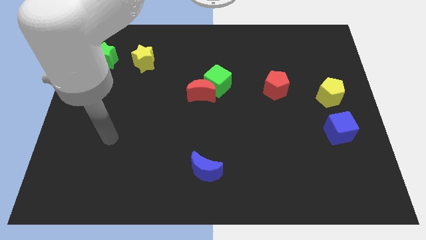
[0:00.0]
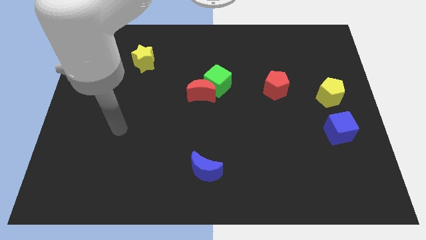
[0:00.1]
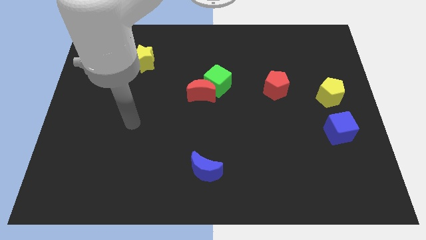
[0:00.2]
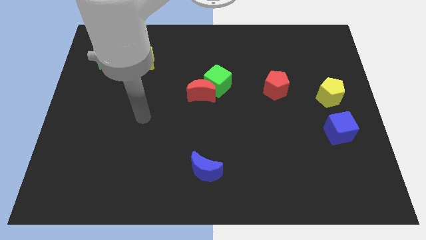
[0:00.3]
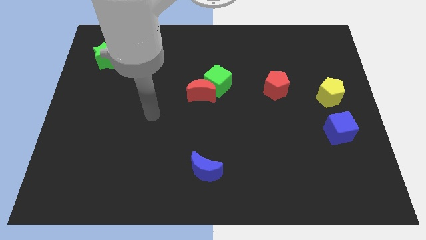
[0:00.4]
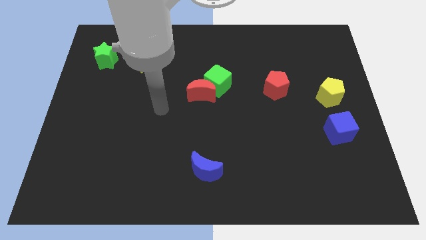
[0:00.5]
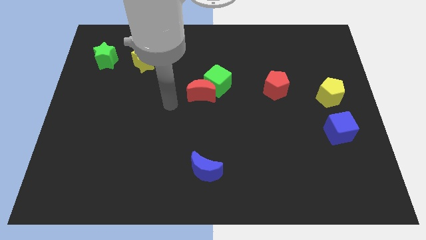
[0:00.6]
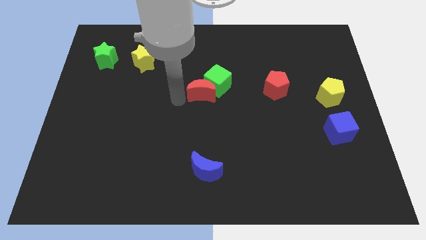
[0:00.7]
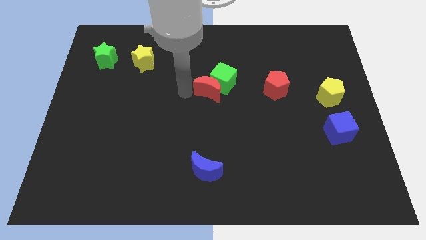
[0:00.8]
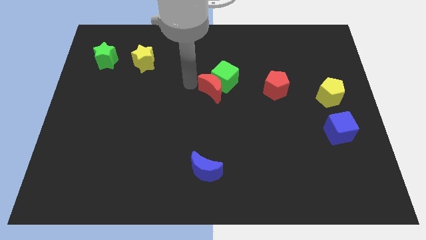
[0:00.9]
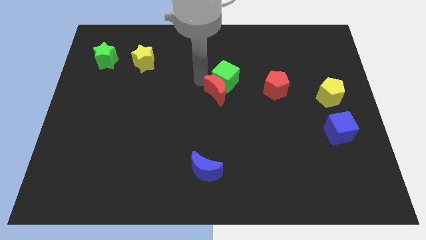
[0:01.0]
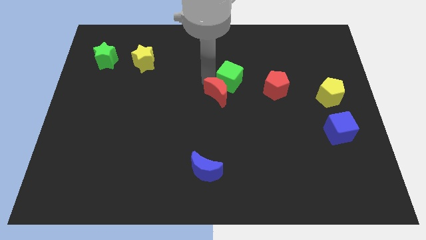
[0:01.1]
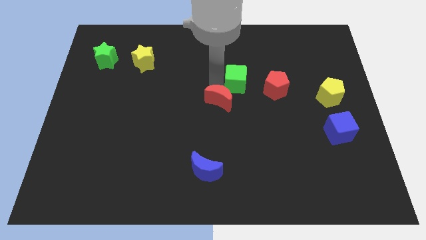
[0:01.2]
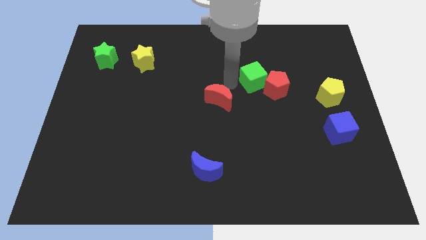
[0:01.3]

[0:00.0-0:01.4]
move the red moon away from the green cube

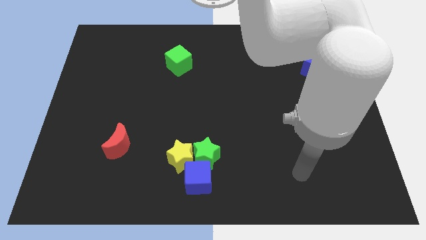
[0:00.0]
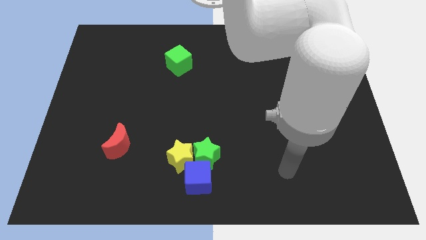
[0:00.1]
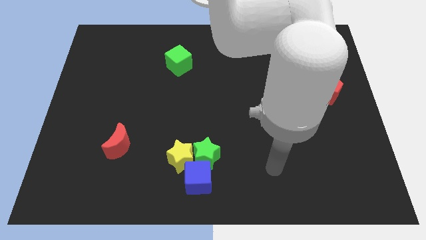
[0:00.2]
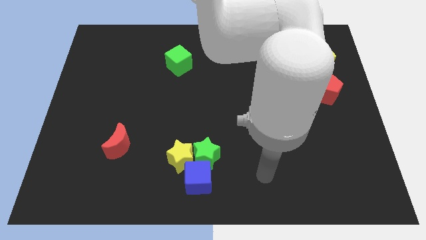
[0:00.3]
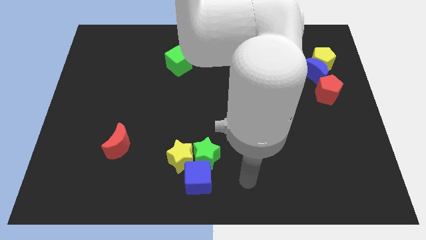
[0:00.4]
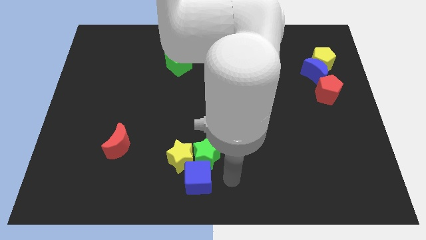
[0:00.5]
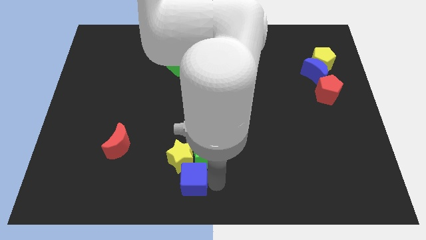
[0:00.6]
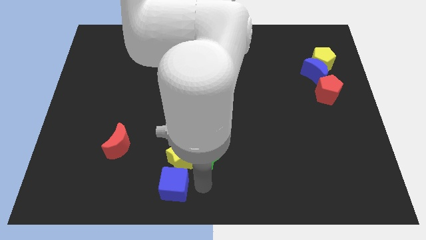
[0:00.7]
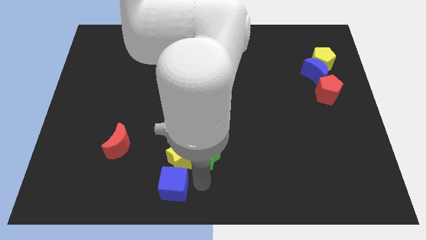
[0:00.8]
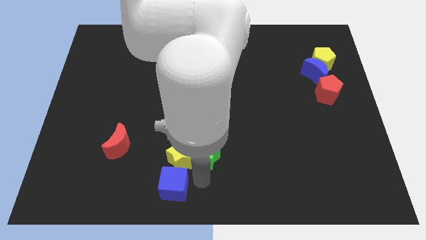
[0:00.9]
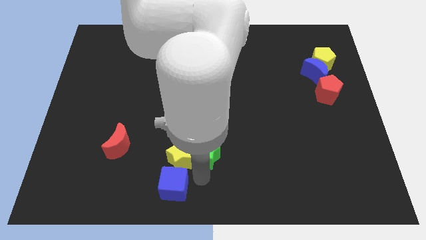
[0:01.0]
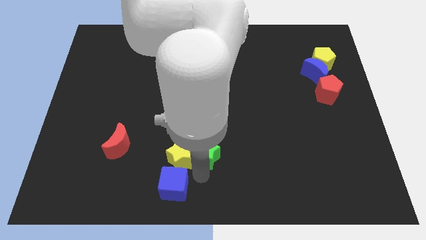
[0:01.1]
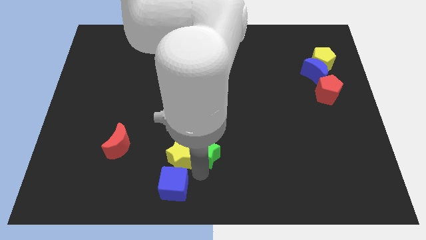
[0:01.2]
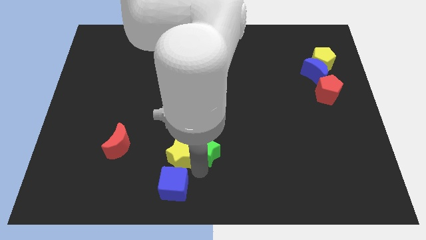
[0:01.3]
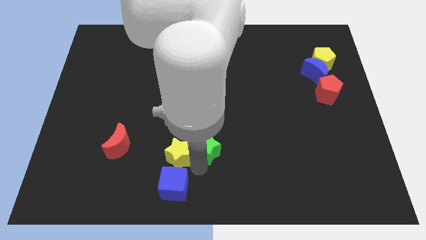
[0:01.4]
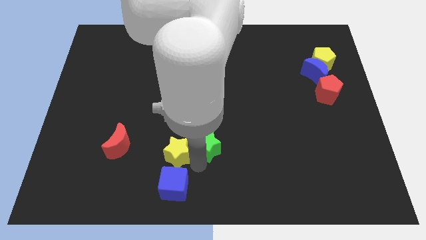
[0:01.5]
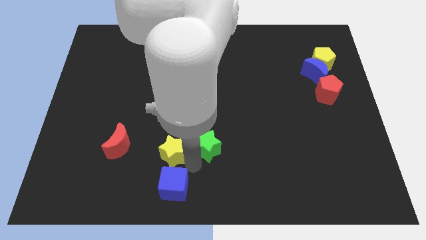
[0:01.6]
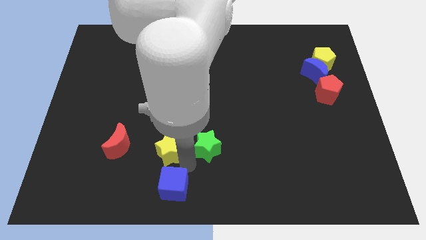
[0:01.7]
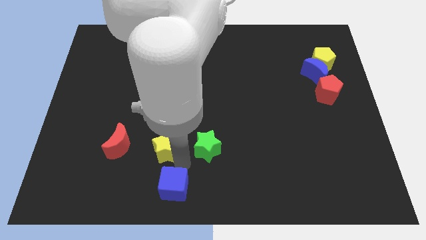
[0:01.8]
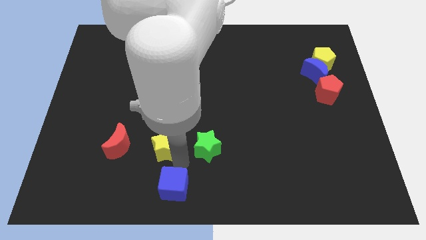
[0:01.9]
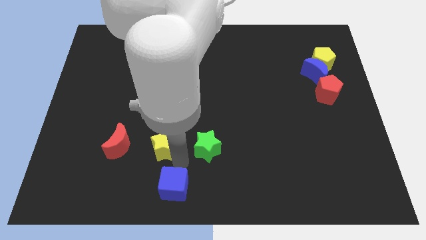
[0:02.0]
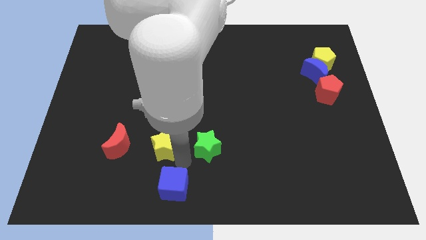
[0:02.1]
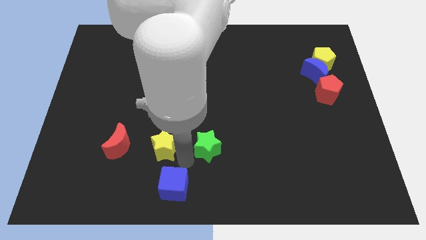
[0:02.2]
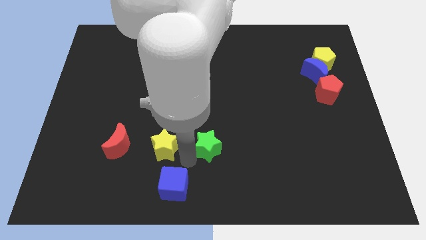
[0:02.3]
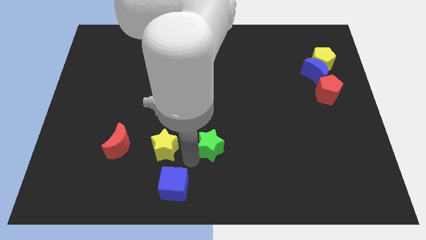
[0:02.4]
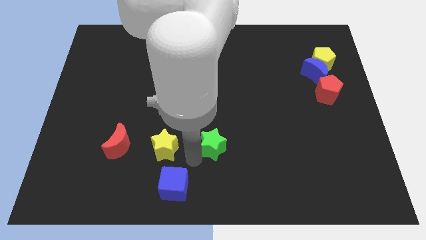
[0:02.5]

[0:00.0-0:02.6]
pull the green star apart from the yellow star and blue cube

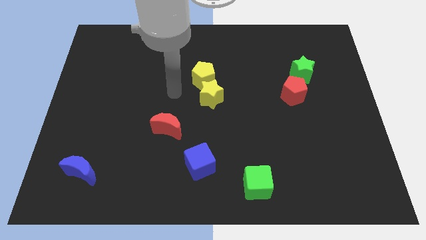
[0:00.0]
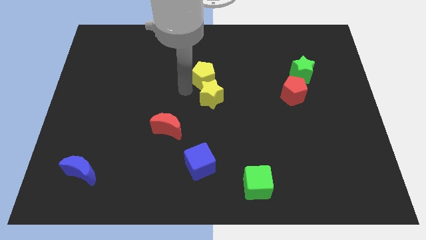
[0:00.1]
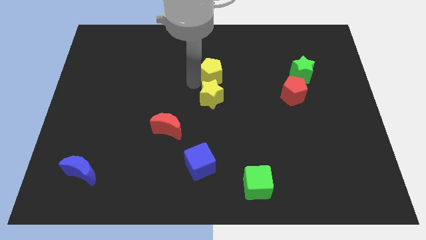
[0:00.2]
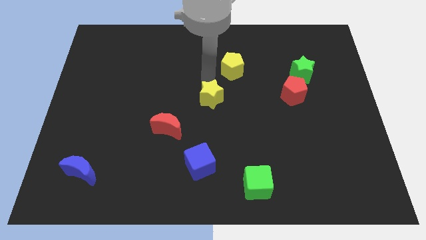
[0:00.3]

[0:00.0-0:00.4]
move the yellow star away from the yellow pentagon

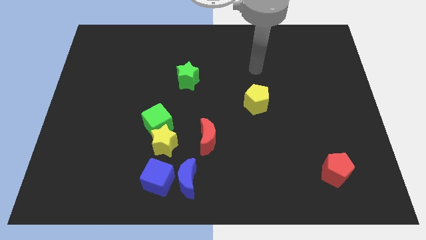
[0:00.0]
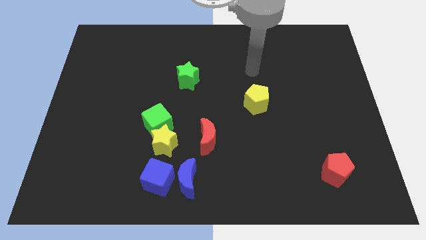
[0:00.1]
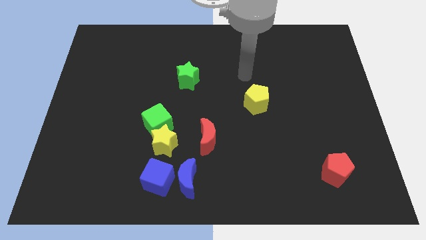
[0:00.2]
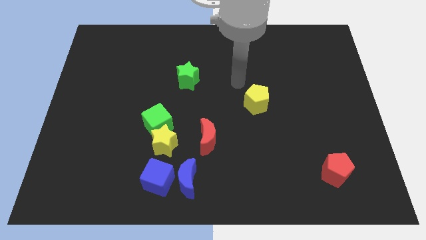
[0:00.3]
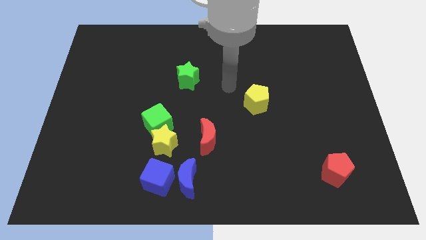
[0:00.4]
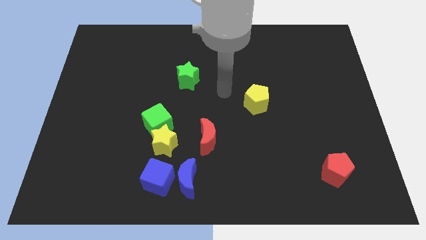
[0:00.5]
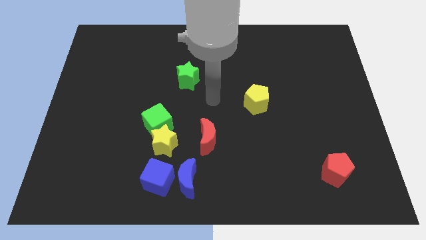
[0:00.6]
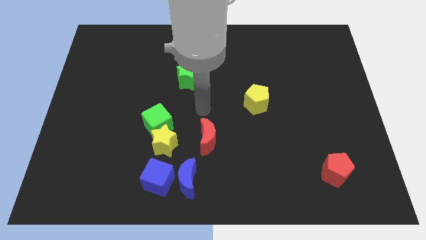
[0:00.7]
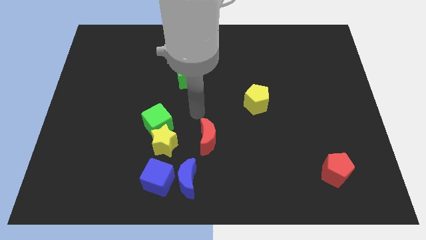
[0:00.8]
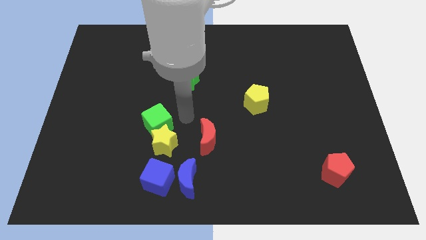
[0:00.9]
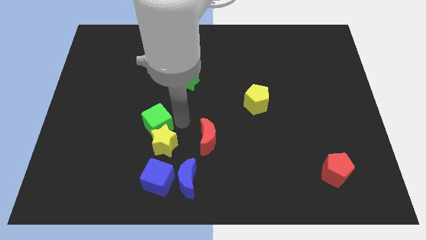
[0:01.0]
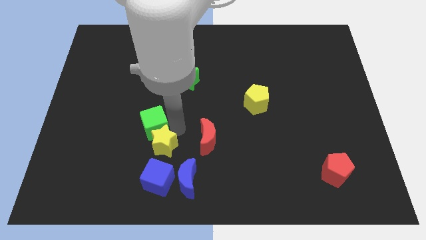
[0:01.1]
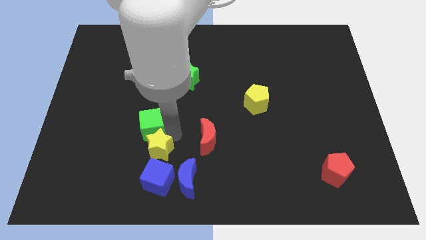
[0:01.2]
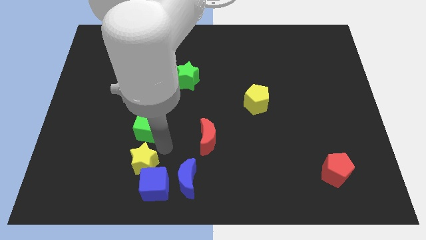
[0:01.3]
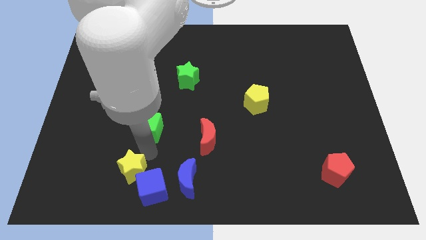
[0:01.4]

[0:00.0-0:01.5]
move the green cube away from the yellow star

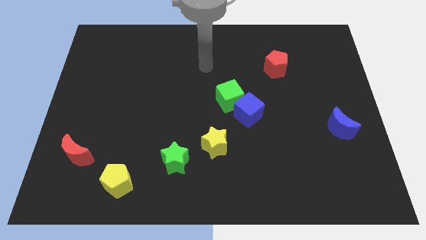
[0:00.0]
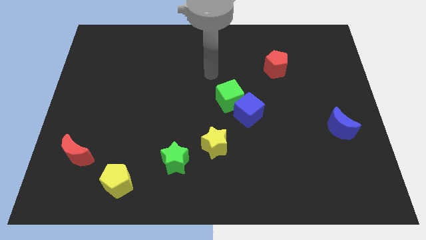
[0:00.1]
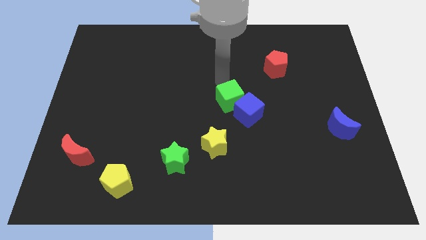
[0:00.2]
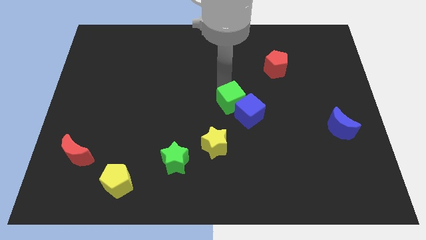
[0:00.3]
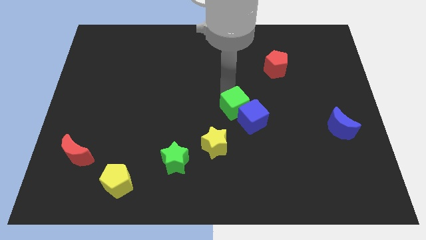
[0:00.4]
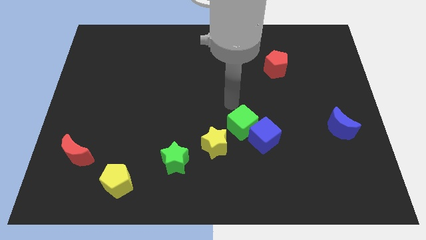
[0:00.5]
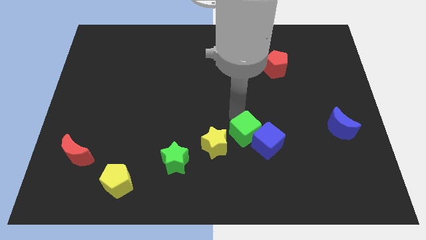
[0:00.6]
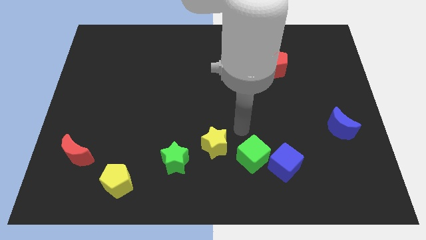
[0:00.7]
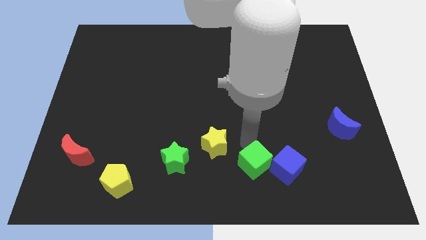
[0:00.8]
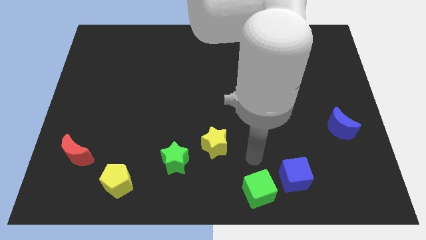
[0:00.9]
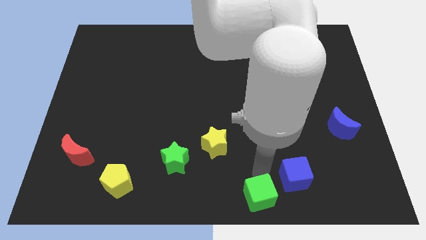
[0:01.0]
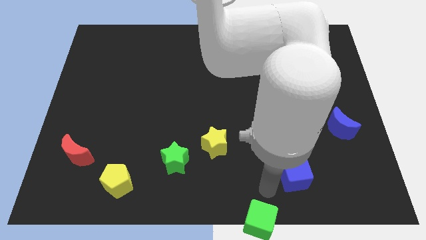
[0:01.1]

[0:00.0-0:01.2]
separate the blue cube from the green cube

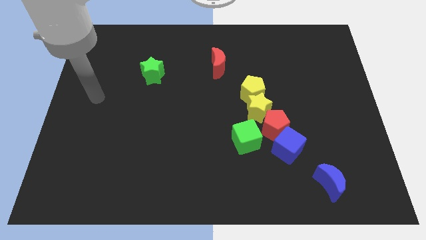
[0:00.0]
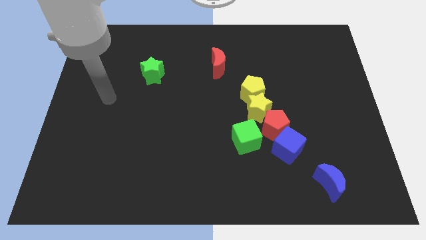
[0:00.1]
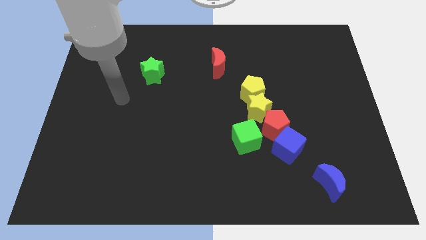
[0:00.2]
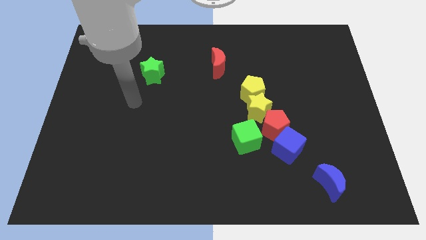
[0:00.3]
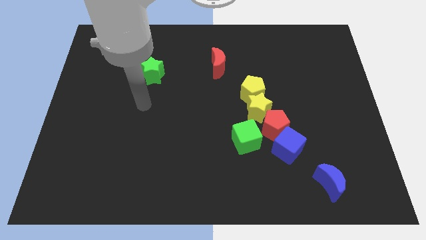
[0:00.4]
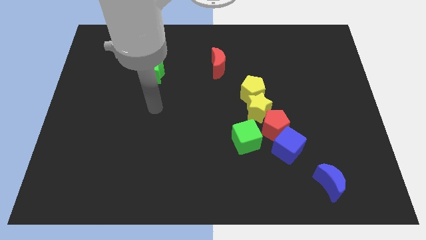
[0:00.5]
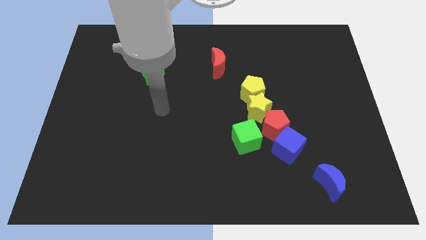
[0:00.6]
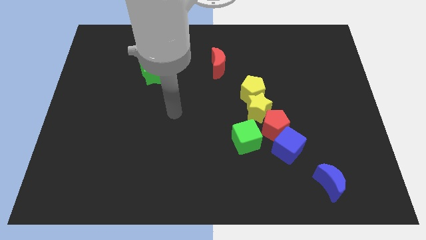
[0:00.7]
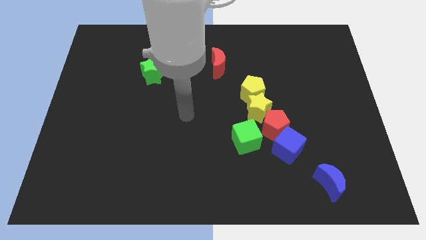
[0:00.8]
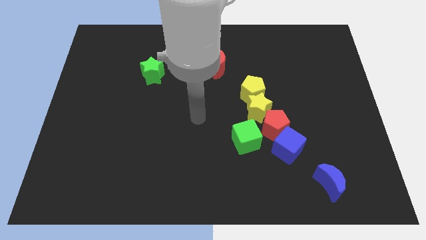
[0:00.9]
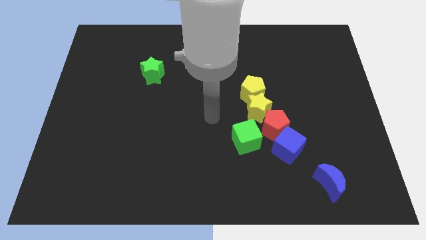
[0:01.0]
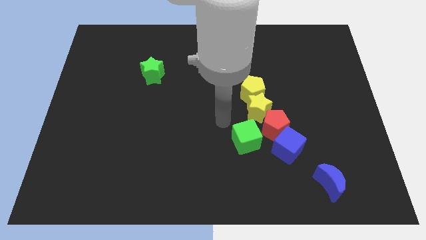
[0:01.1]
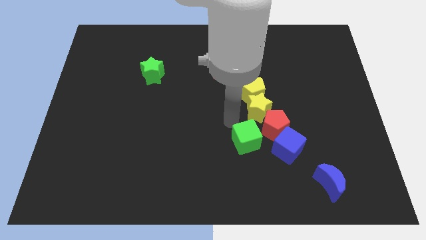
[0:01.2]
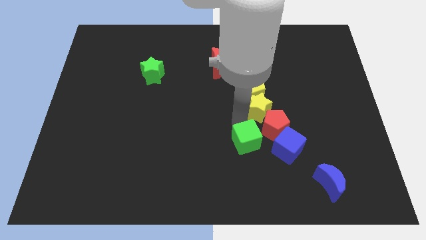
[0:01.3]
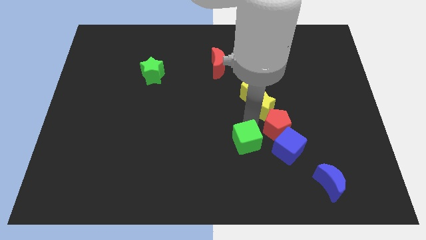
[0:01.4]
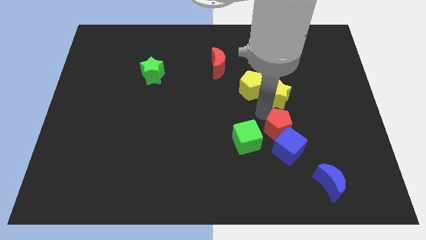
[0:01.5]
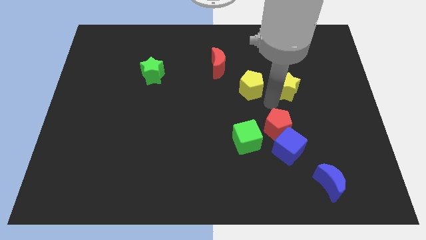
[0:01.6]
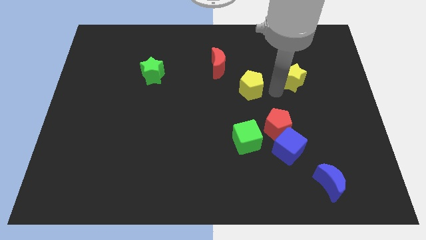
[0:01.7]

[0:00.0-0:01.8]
separate the yellow pentagon from the yellow star

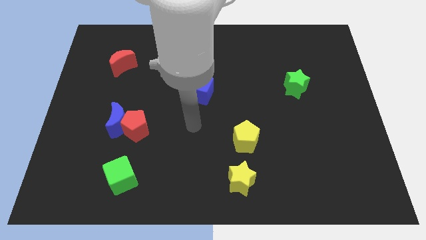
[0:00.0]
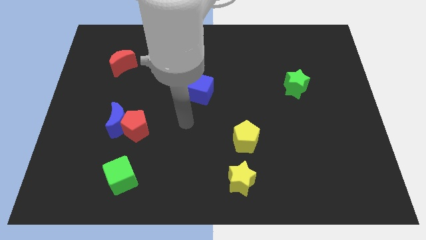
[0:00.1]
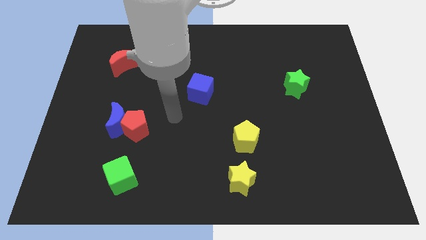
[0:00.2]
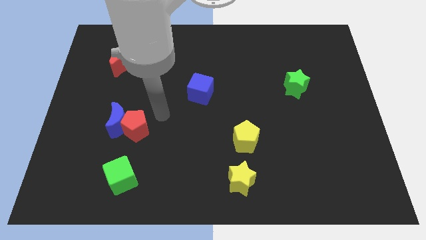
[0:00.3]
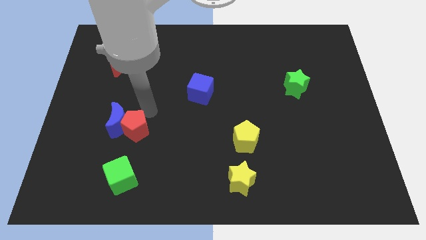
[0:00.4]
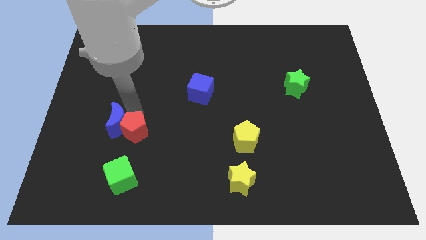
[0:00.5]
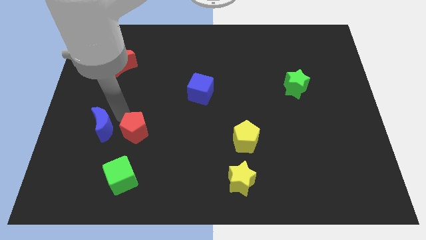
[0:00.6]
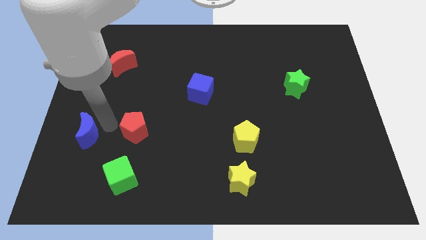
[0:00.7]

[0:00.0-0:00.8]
separate the red pentagon from the blue moon
